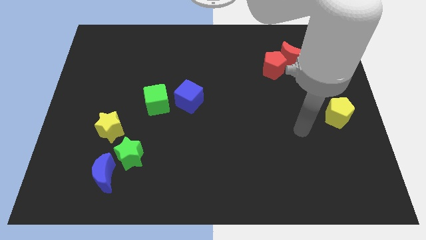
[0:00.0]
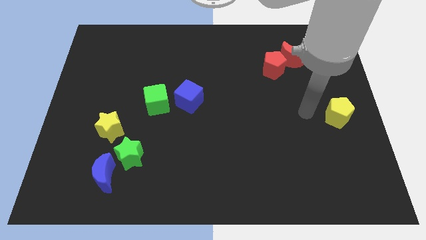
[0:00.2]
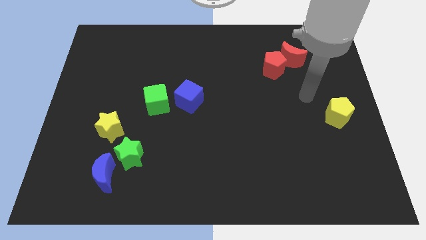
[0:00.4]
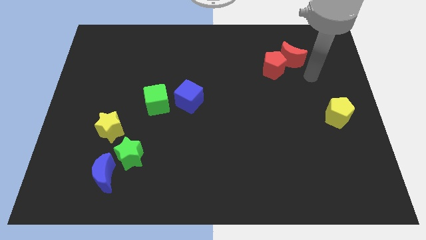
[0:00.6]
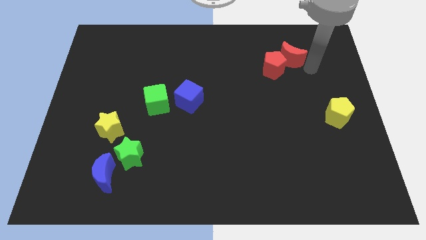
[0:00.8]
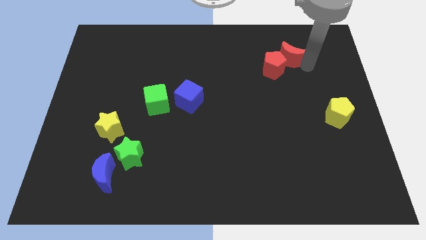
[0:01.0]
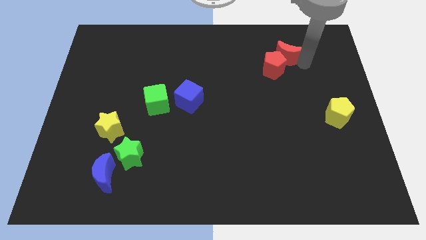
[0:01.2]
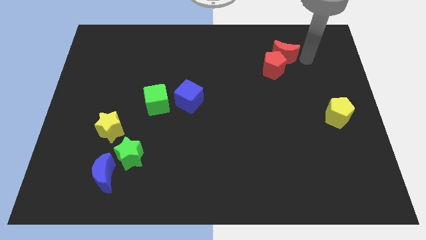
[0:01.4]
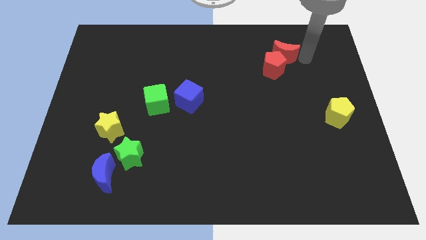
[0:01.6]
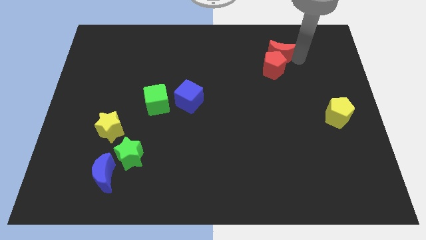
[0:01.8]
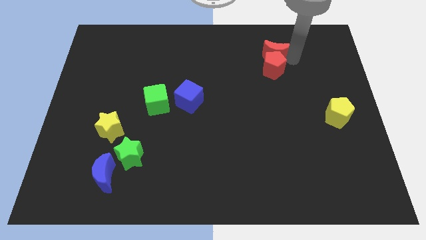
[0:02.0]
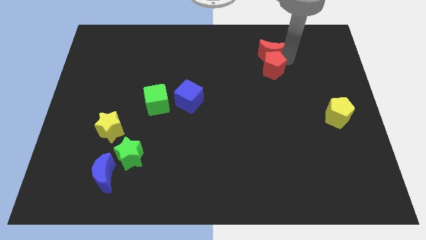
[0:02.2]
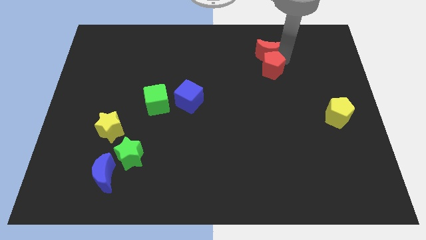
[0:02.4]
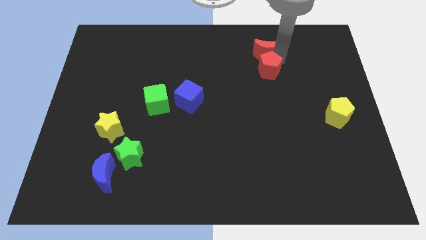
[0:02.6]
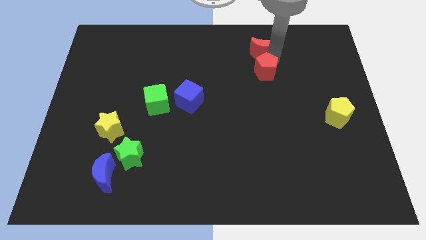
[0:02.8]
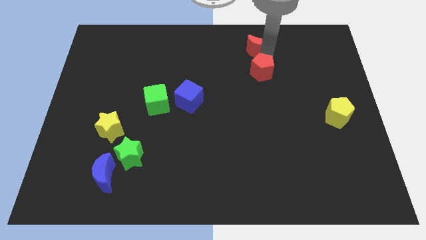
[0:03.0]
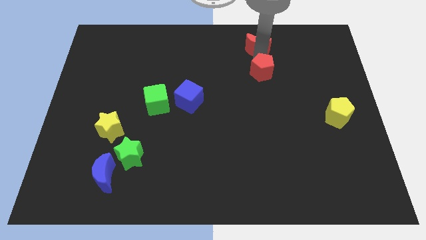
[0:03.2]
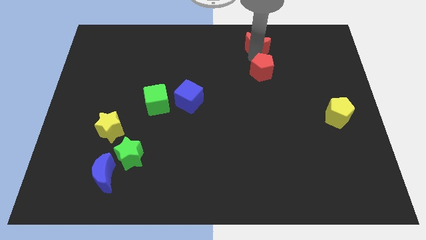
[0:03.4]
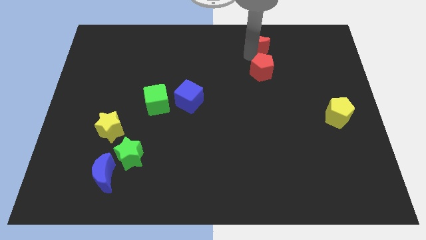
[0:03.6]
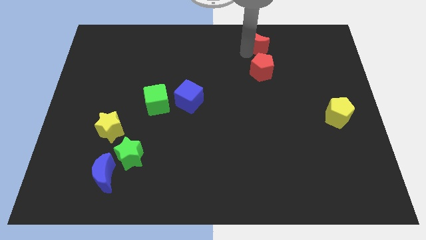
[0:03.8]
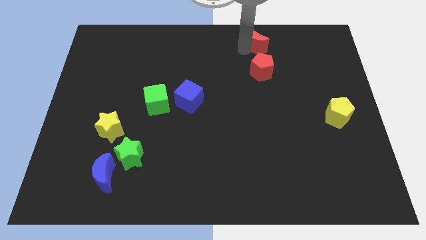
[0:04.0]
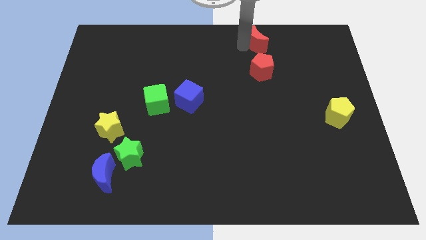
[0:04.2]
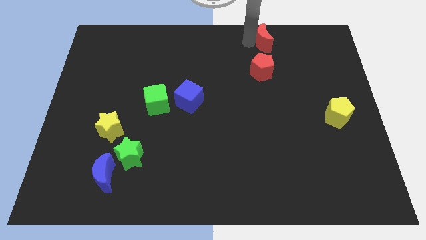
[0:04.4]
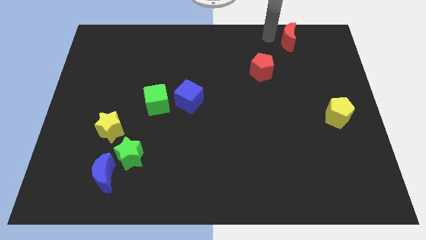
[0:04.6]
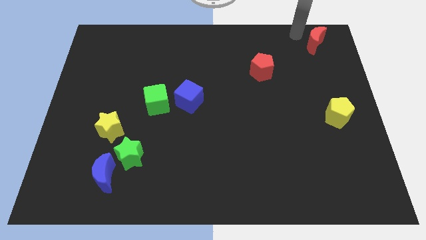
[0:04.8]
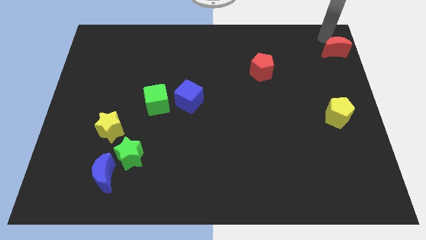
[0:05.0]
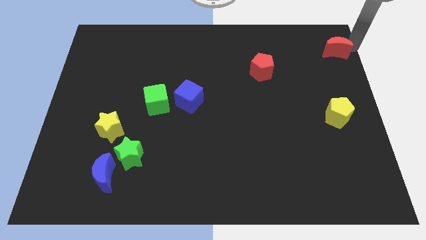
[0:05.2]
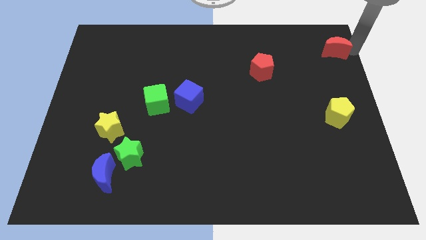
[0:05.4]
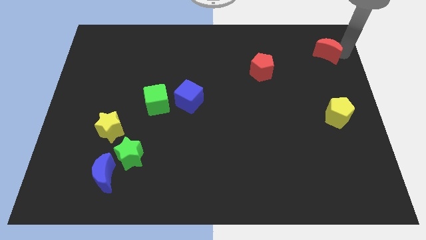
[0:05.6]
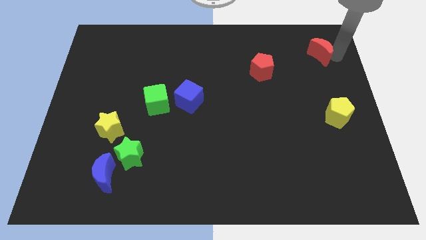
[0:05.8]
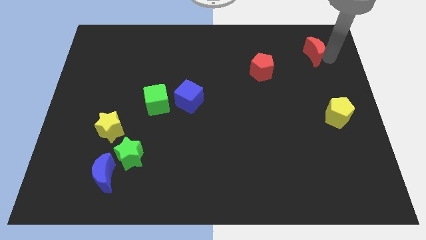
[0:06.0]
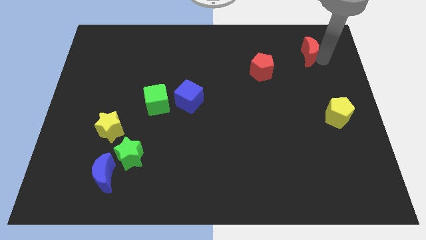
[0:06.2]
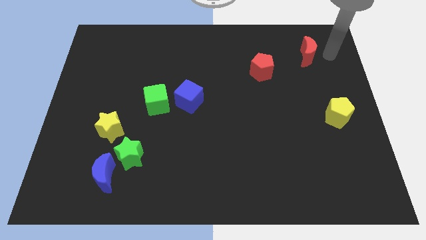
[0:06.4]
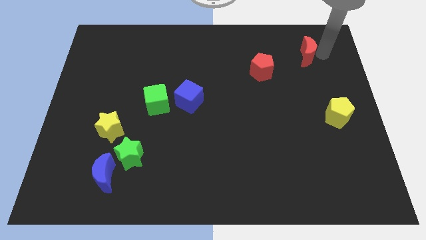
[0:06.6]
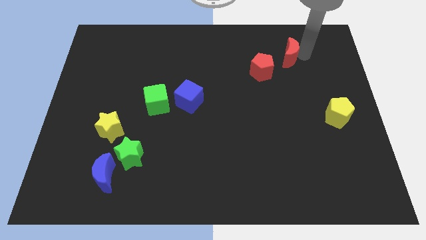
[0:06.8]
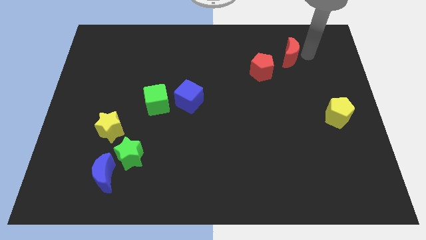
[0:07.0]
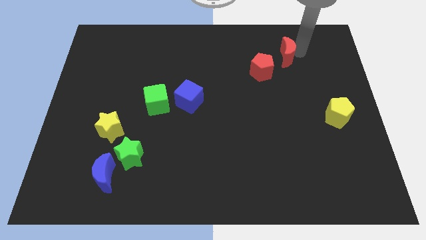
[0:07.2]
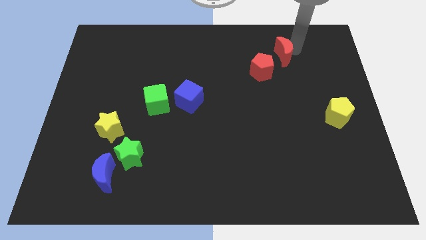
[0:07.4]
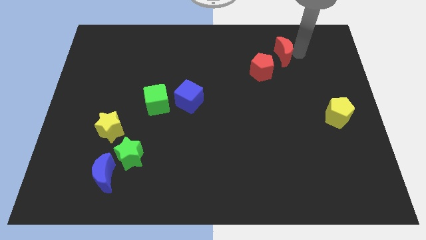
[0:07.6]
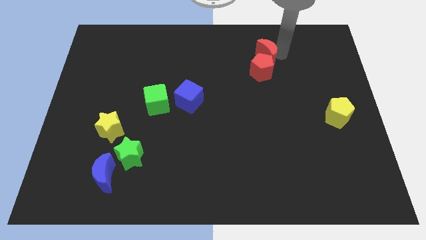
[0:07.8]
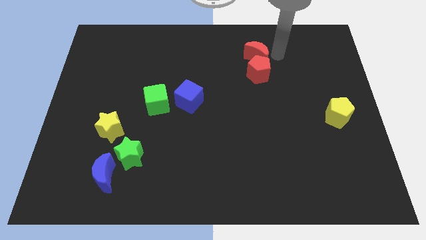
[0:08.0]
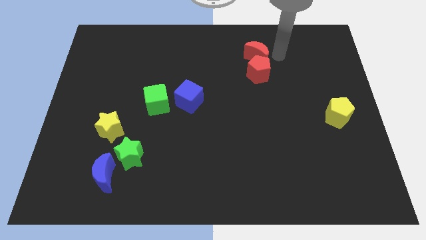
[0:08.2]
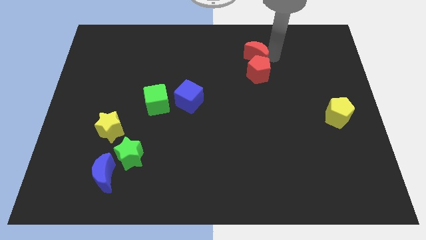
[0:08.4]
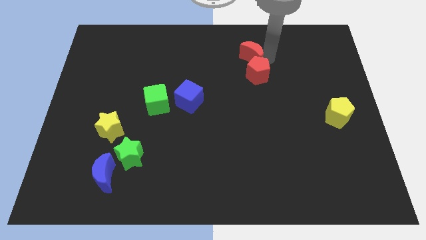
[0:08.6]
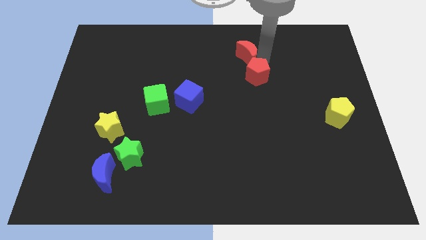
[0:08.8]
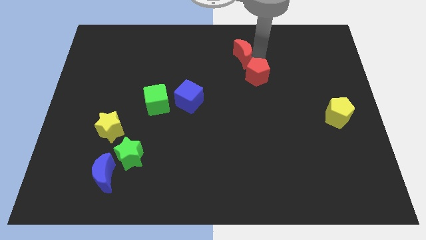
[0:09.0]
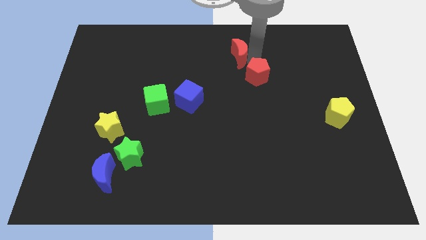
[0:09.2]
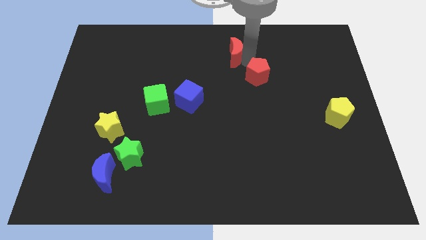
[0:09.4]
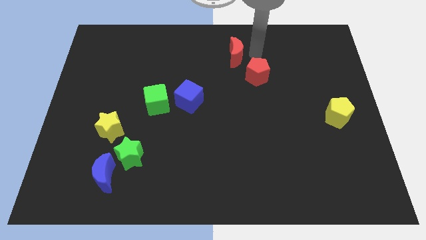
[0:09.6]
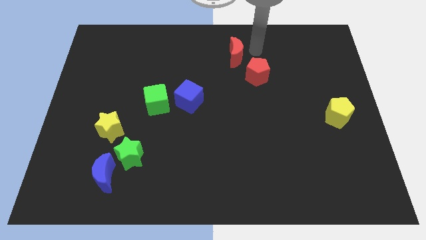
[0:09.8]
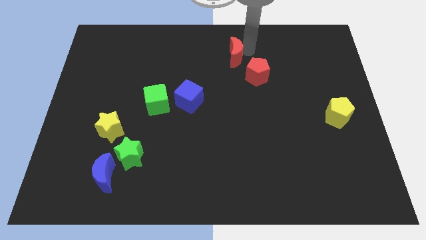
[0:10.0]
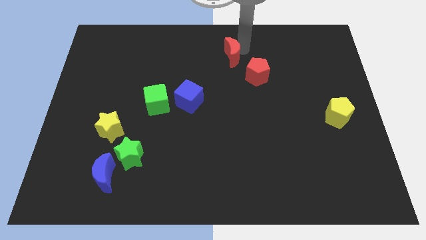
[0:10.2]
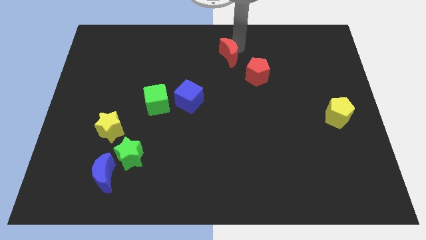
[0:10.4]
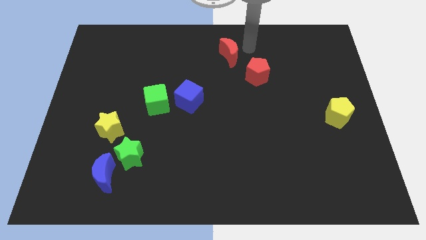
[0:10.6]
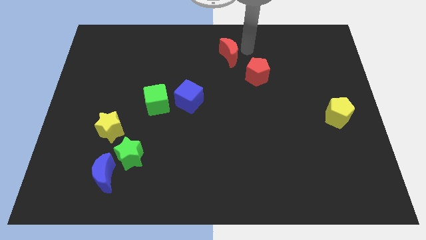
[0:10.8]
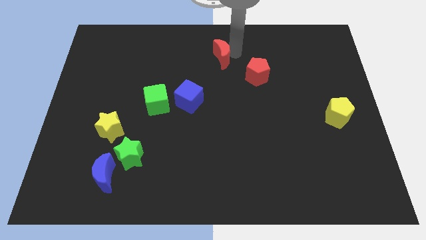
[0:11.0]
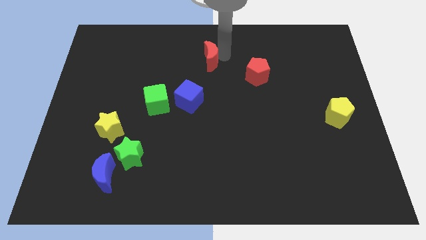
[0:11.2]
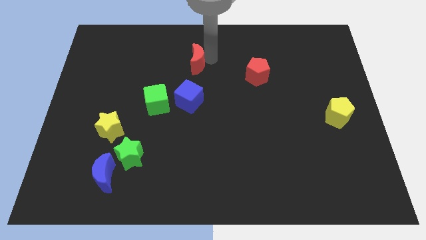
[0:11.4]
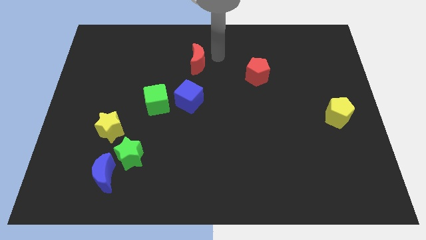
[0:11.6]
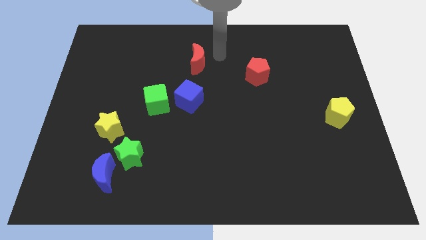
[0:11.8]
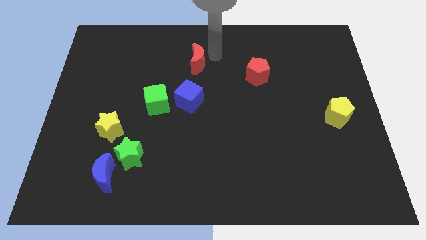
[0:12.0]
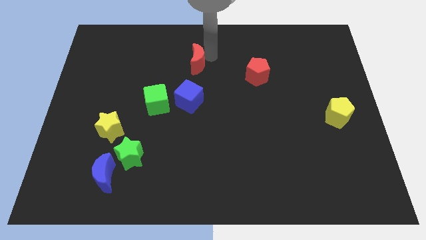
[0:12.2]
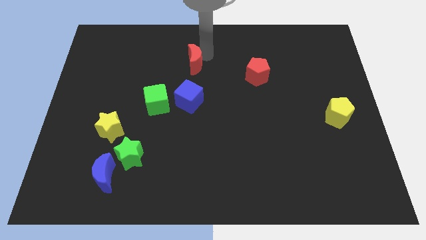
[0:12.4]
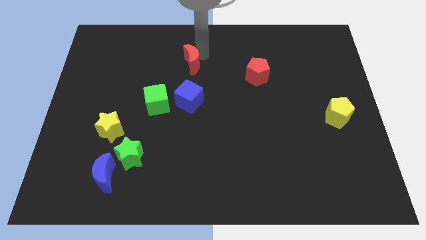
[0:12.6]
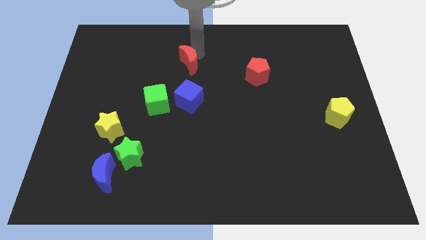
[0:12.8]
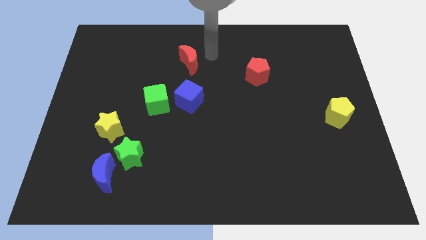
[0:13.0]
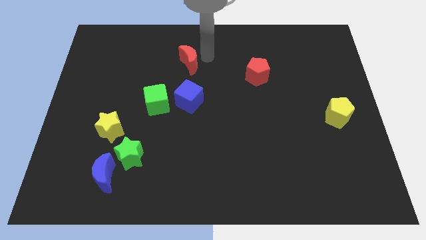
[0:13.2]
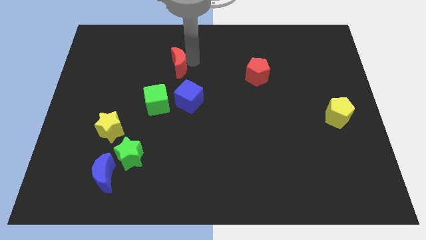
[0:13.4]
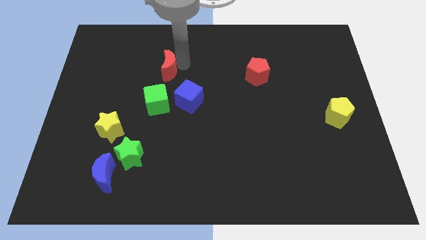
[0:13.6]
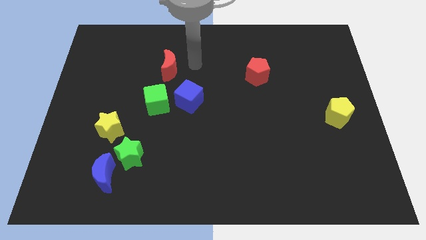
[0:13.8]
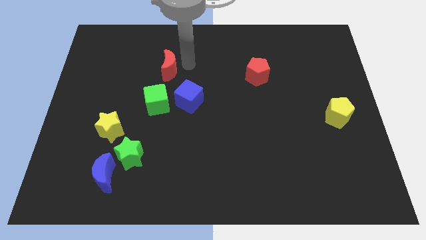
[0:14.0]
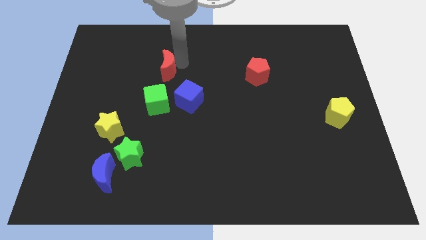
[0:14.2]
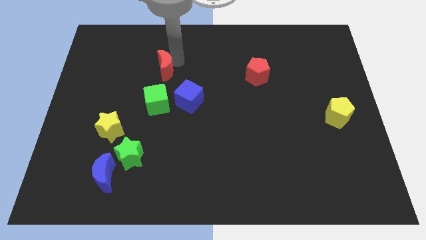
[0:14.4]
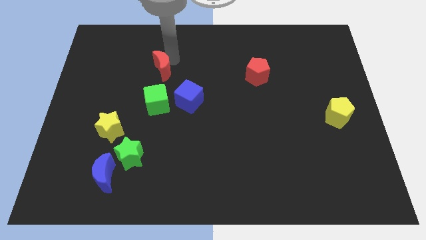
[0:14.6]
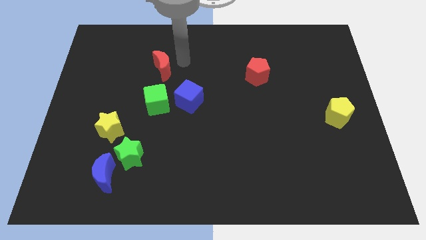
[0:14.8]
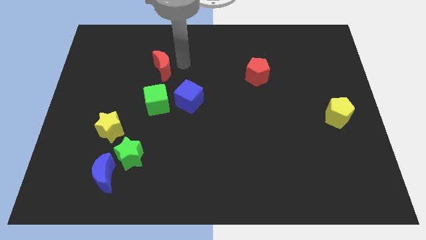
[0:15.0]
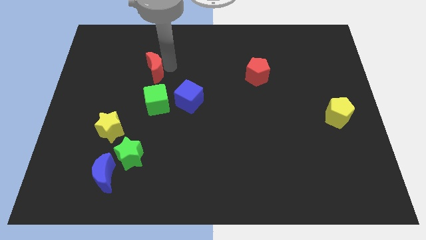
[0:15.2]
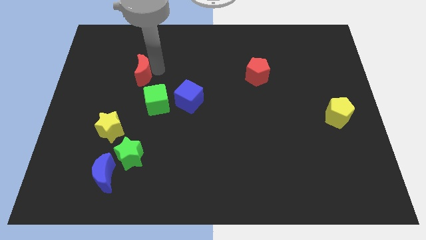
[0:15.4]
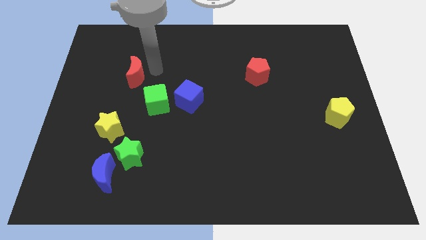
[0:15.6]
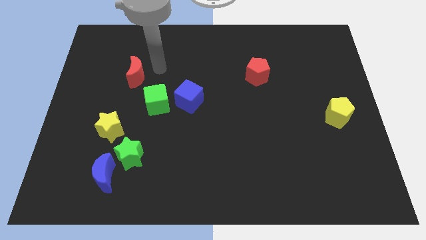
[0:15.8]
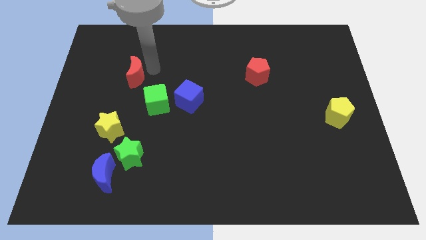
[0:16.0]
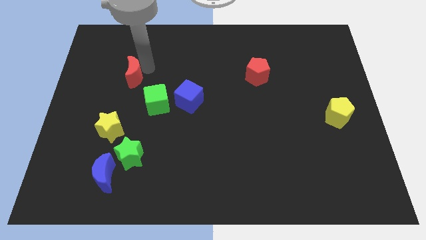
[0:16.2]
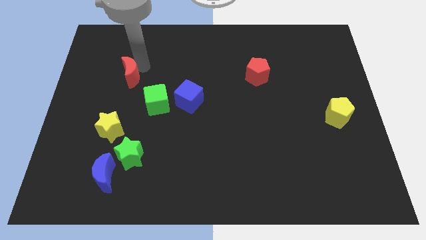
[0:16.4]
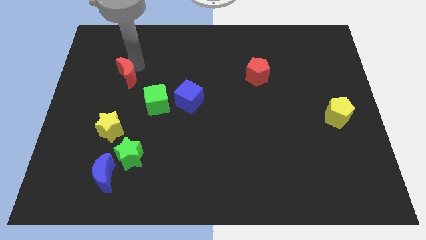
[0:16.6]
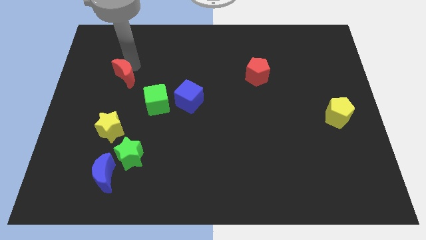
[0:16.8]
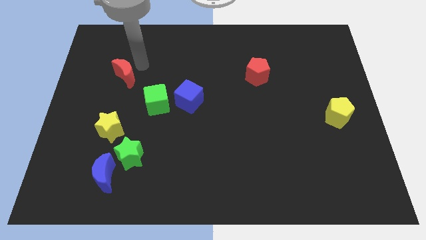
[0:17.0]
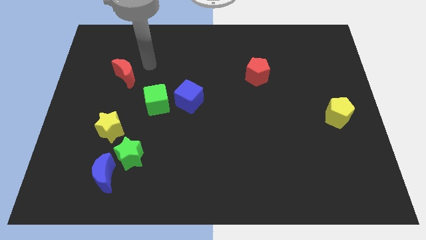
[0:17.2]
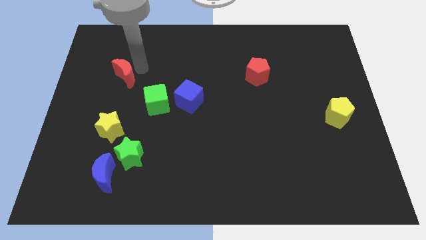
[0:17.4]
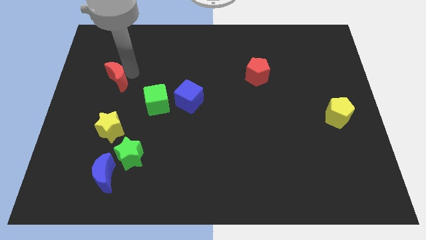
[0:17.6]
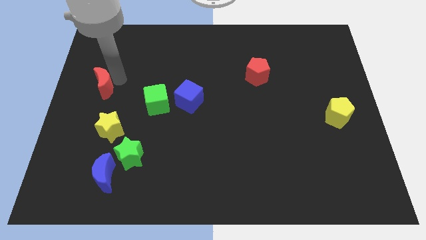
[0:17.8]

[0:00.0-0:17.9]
put the red moon to the center left
